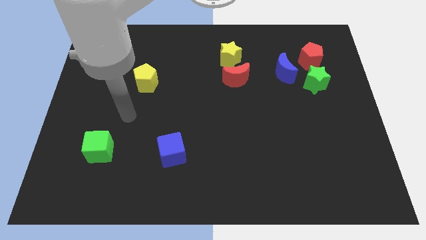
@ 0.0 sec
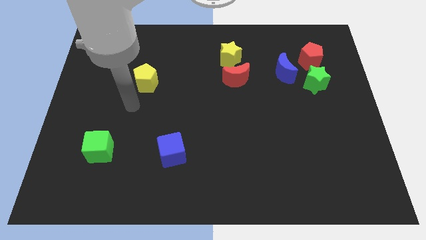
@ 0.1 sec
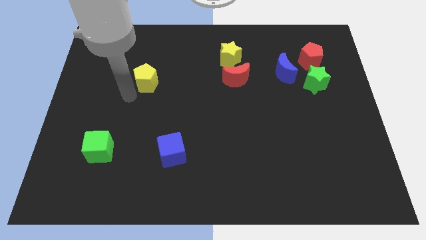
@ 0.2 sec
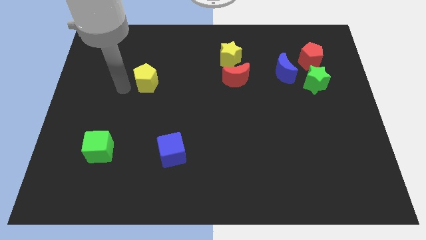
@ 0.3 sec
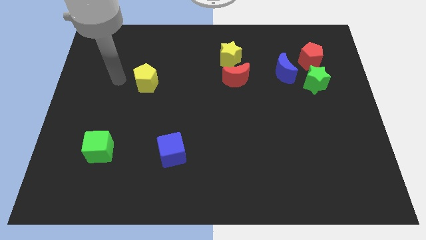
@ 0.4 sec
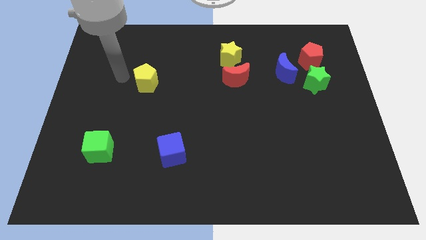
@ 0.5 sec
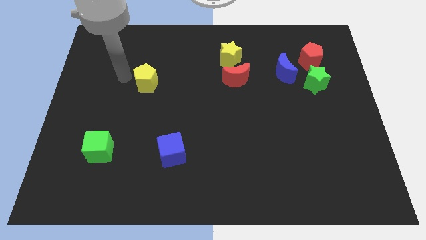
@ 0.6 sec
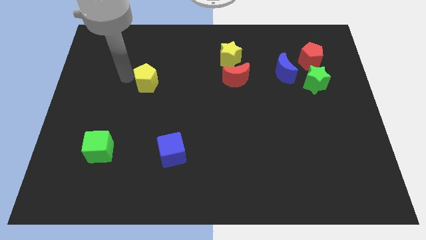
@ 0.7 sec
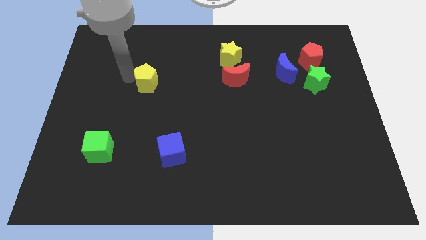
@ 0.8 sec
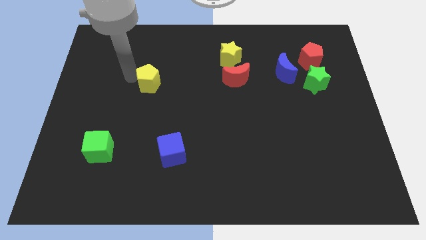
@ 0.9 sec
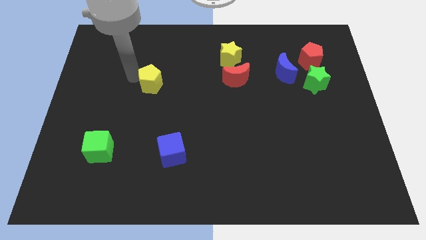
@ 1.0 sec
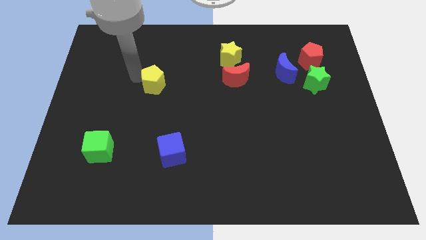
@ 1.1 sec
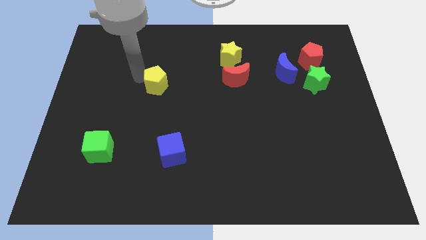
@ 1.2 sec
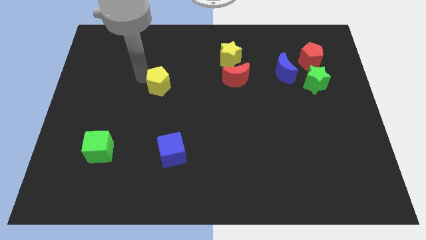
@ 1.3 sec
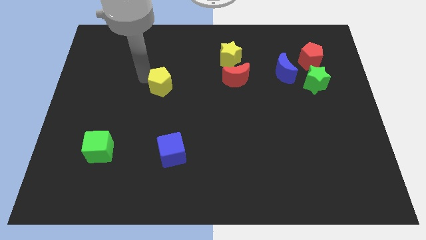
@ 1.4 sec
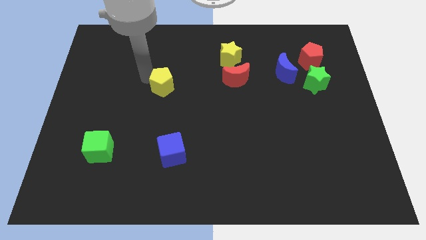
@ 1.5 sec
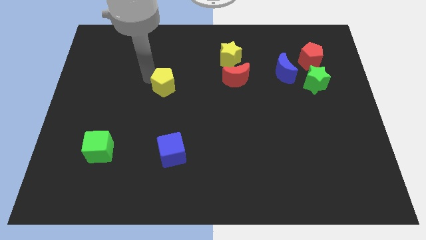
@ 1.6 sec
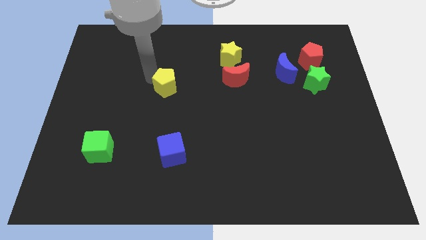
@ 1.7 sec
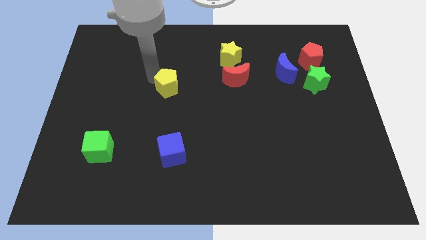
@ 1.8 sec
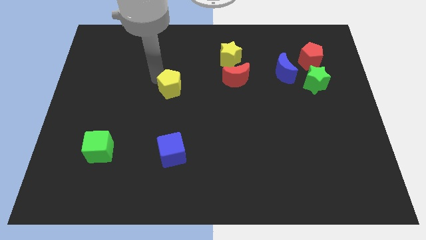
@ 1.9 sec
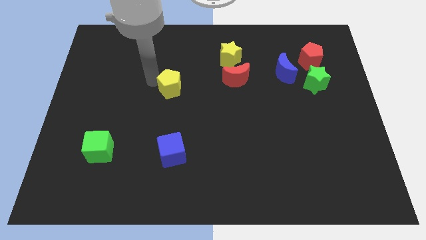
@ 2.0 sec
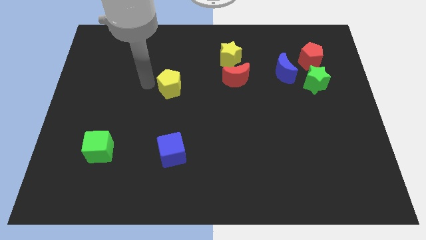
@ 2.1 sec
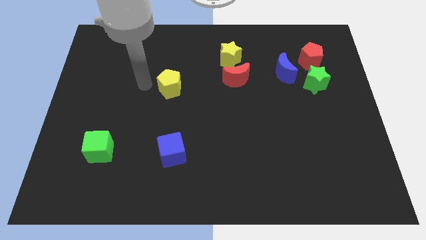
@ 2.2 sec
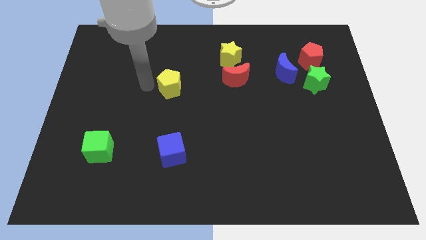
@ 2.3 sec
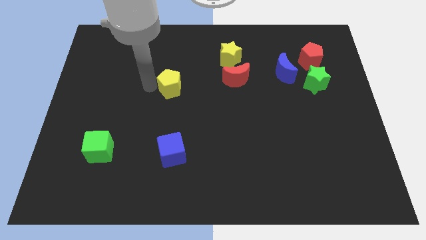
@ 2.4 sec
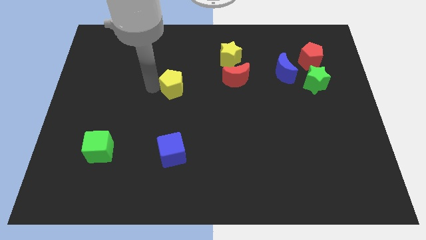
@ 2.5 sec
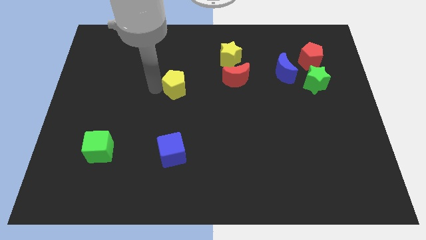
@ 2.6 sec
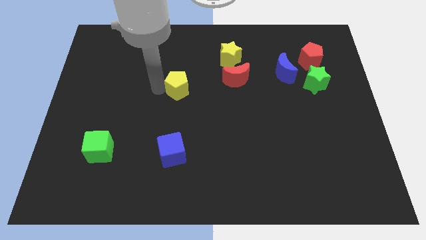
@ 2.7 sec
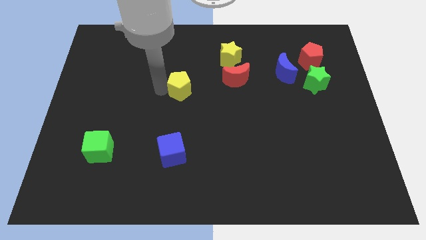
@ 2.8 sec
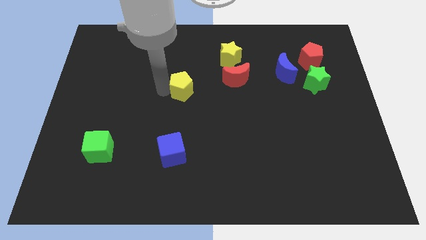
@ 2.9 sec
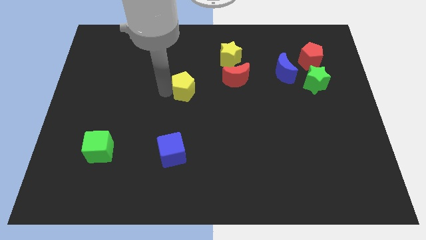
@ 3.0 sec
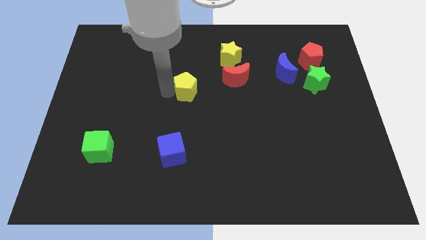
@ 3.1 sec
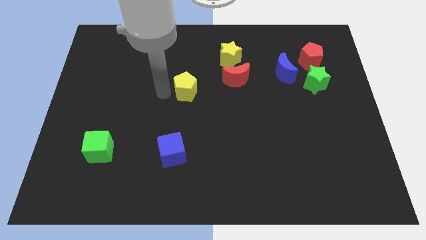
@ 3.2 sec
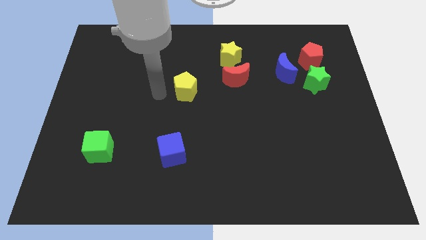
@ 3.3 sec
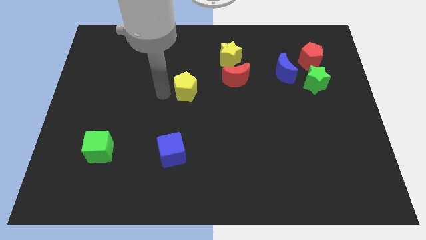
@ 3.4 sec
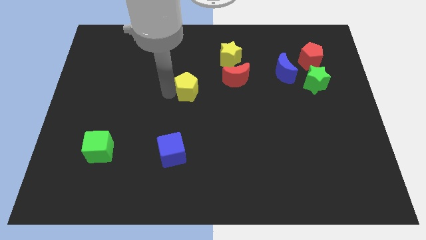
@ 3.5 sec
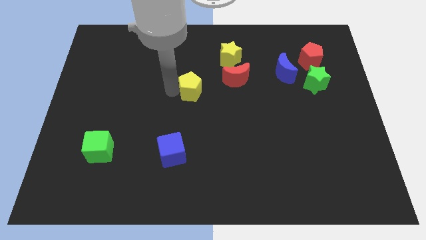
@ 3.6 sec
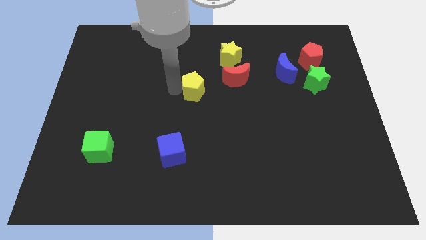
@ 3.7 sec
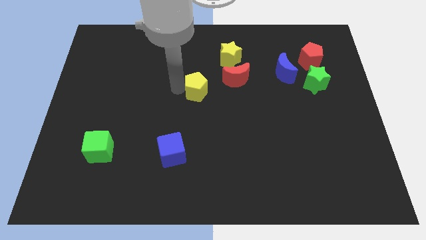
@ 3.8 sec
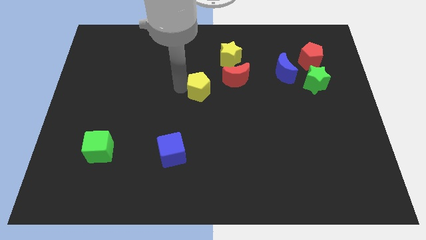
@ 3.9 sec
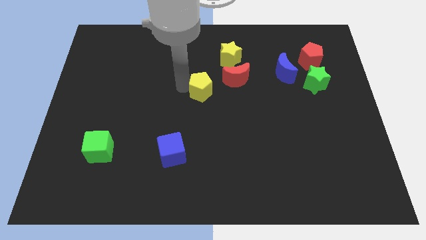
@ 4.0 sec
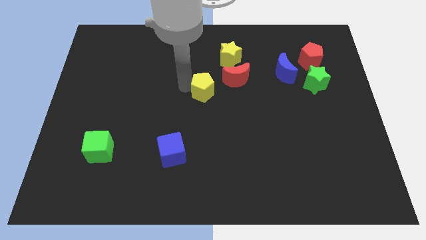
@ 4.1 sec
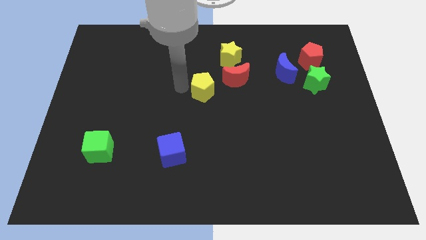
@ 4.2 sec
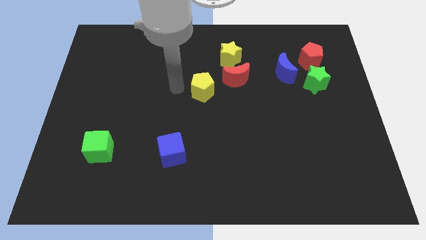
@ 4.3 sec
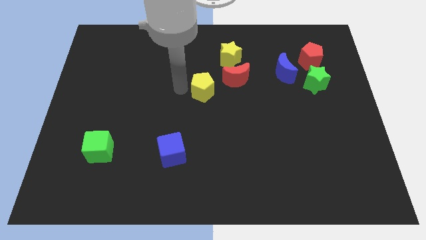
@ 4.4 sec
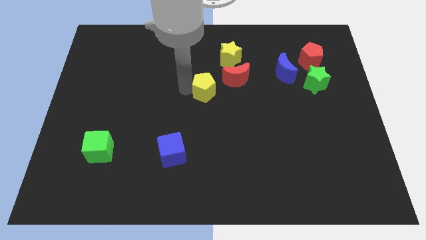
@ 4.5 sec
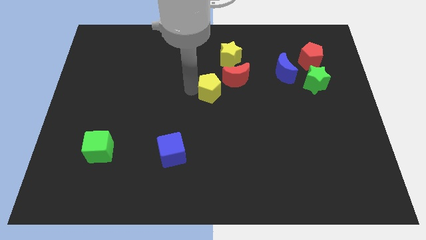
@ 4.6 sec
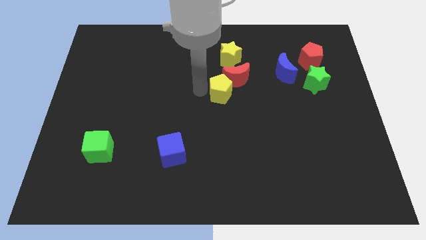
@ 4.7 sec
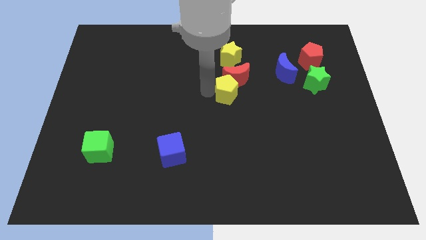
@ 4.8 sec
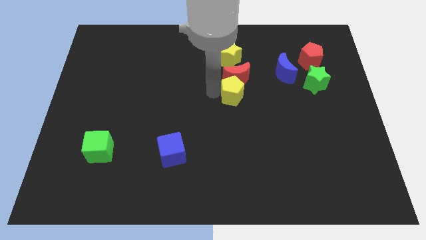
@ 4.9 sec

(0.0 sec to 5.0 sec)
move the yellow pentagon right

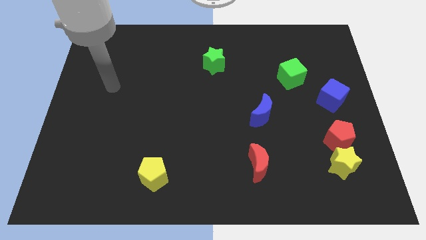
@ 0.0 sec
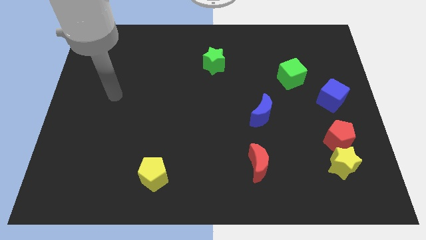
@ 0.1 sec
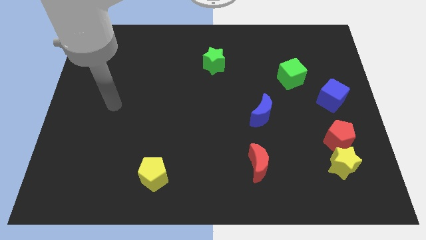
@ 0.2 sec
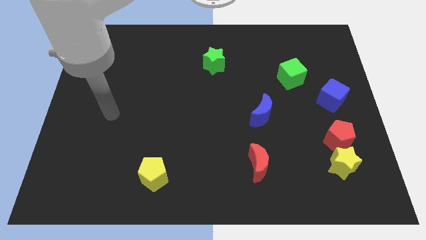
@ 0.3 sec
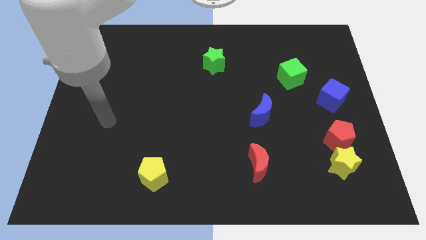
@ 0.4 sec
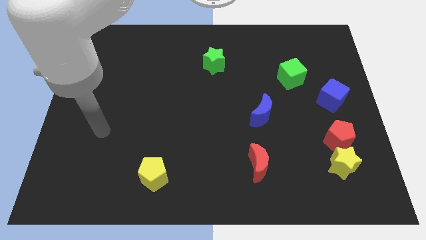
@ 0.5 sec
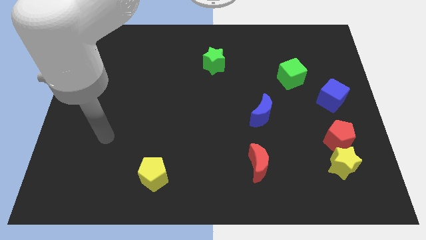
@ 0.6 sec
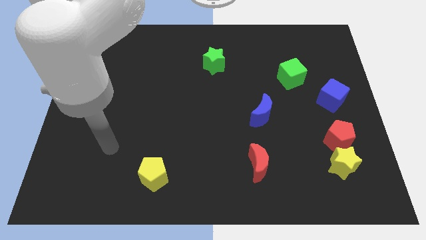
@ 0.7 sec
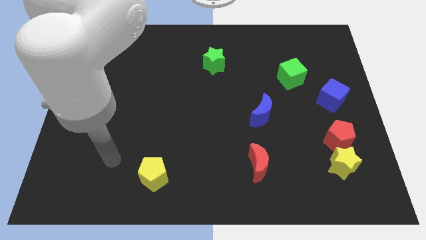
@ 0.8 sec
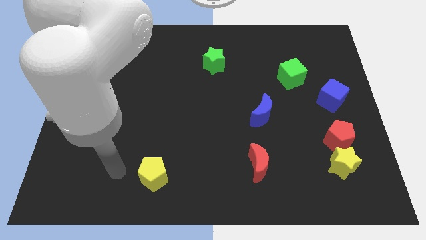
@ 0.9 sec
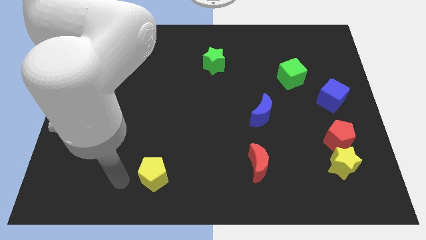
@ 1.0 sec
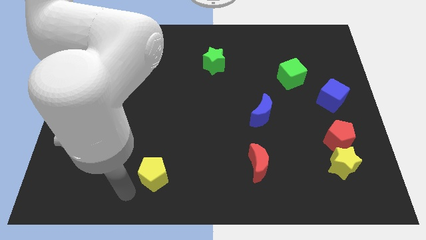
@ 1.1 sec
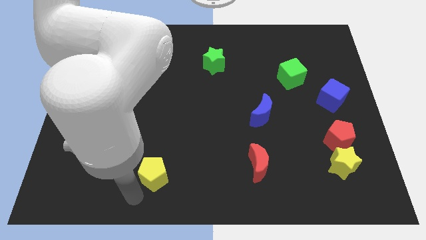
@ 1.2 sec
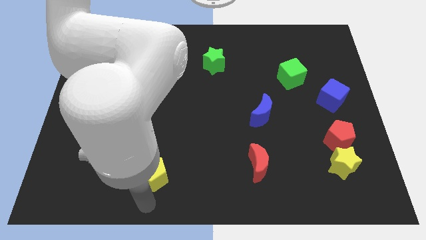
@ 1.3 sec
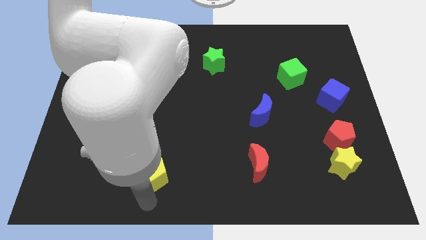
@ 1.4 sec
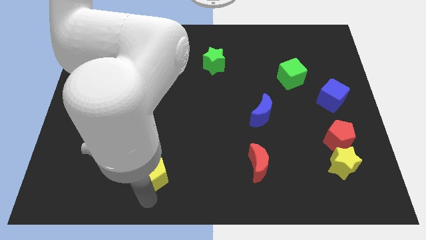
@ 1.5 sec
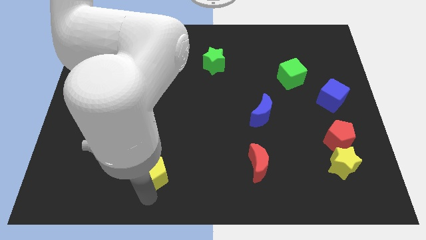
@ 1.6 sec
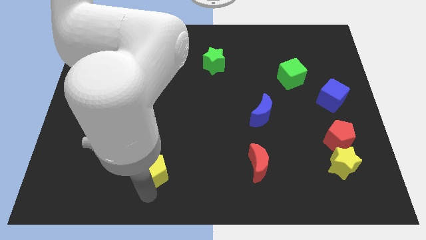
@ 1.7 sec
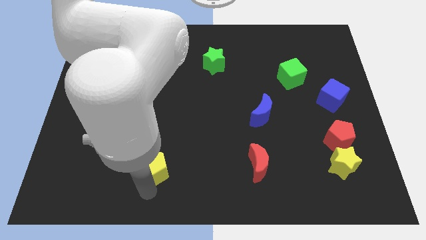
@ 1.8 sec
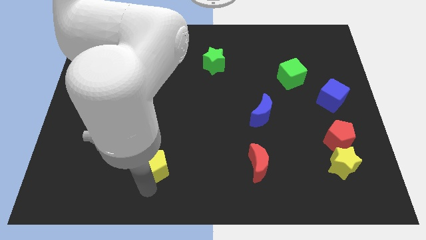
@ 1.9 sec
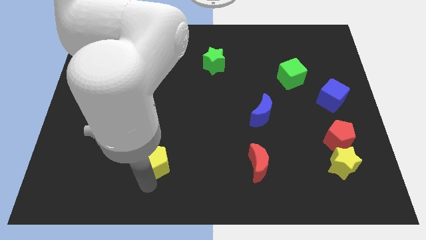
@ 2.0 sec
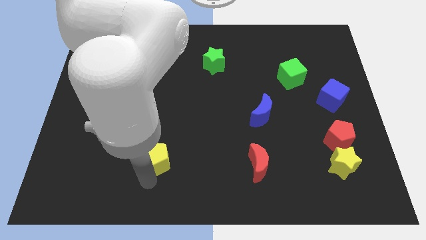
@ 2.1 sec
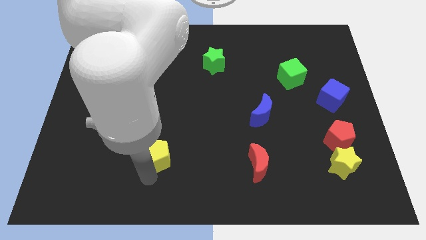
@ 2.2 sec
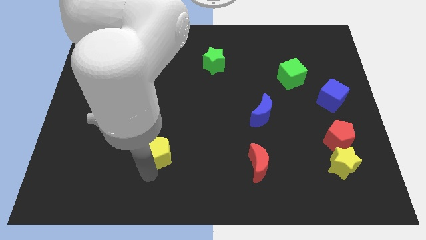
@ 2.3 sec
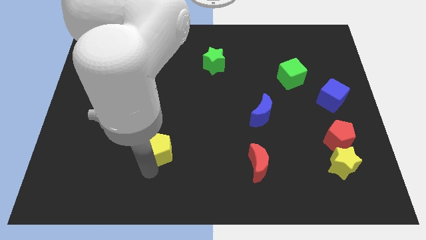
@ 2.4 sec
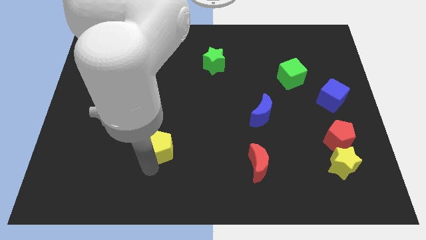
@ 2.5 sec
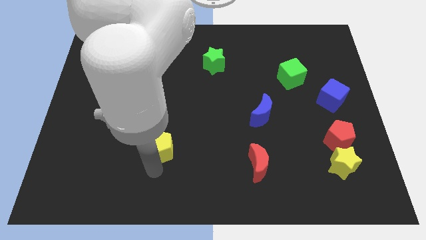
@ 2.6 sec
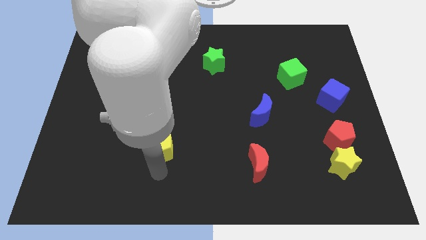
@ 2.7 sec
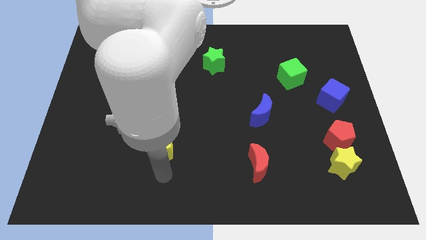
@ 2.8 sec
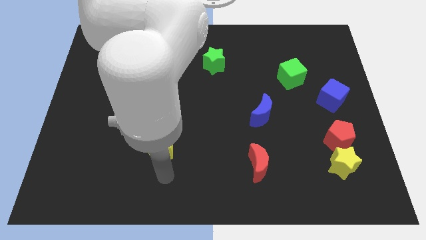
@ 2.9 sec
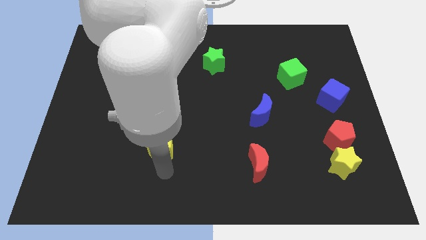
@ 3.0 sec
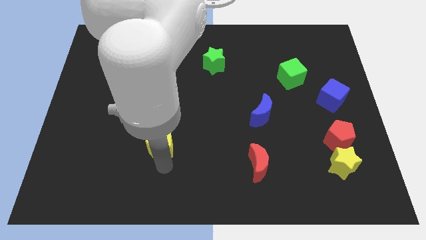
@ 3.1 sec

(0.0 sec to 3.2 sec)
slightly push the yellow pentagon up
